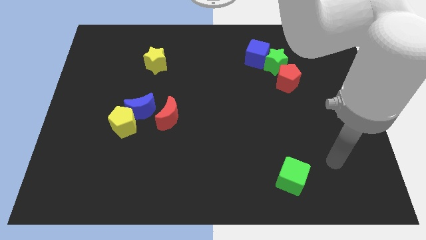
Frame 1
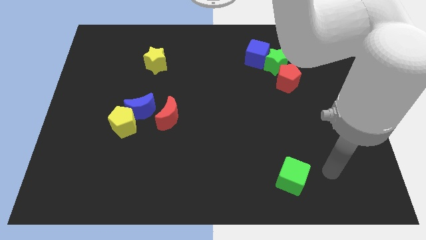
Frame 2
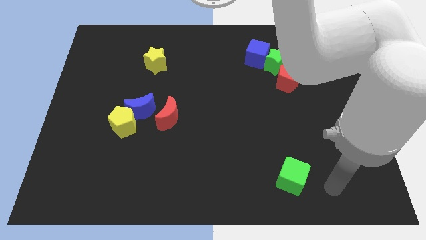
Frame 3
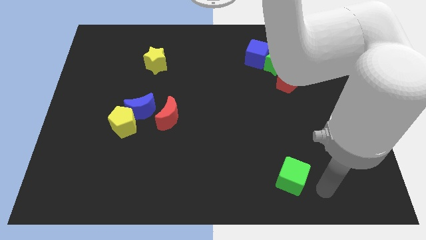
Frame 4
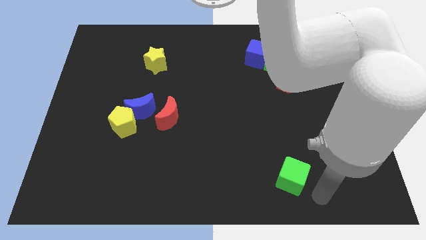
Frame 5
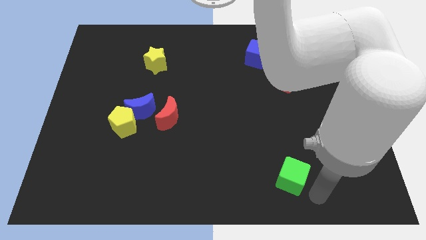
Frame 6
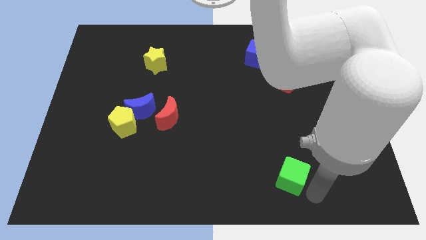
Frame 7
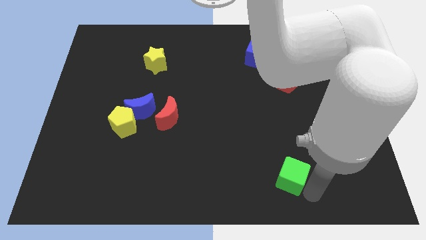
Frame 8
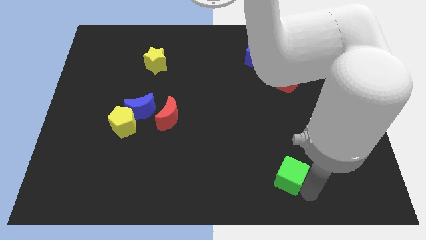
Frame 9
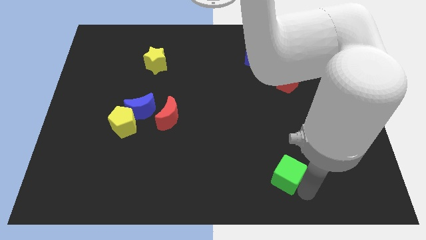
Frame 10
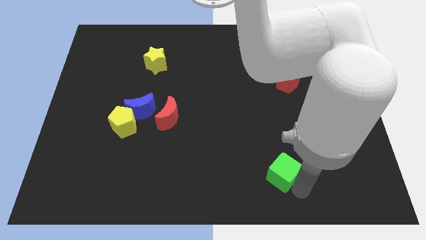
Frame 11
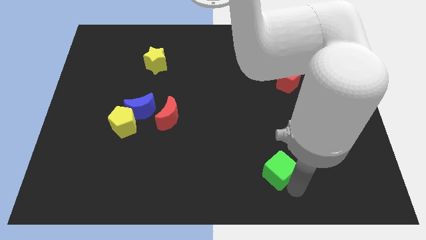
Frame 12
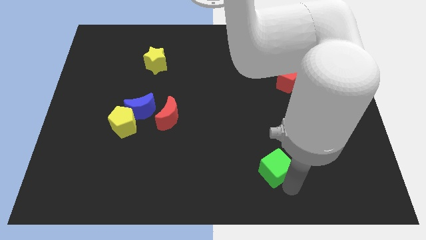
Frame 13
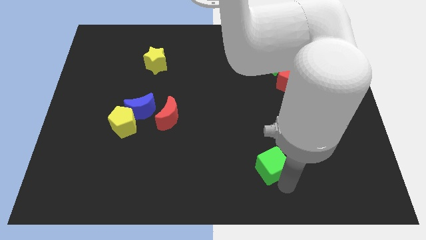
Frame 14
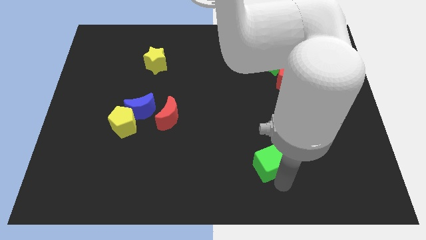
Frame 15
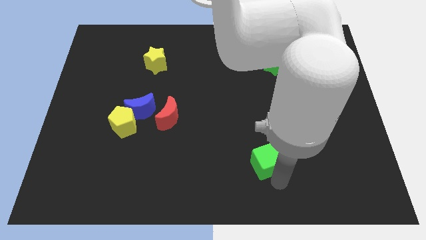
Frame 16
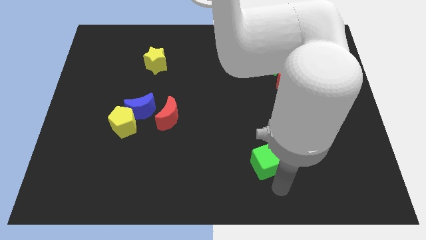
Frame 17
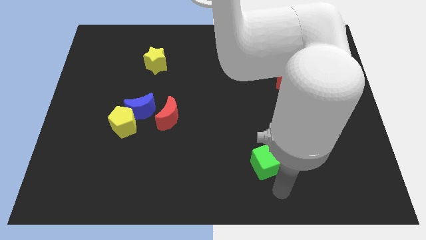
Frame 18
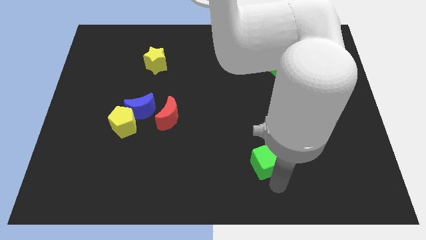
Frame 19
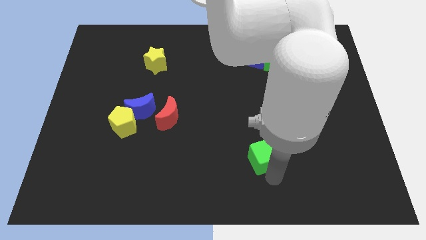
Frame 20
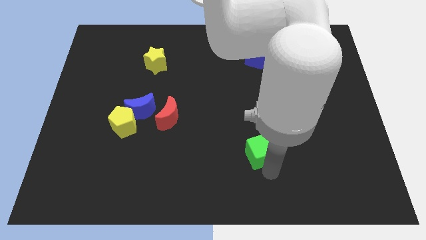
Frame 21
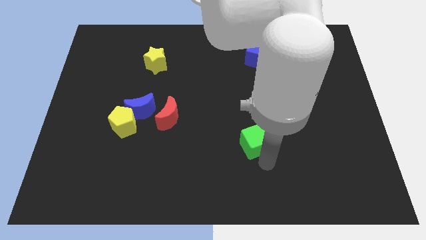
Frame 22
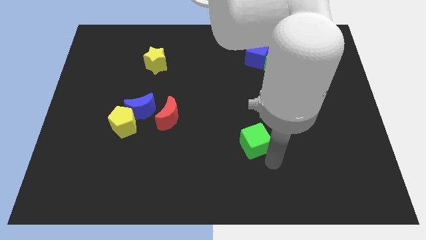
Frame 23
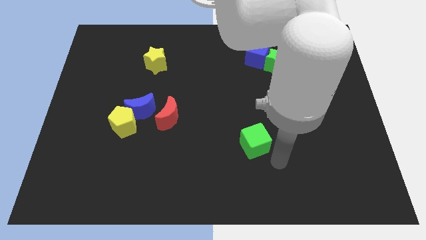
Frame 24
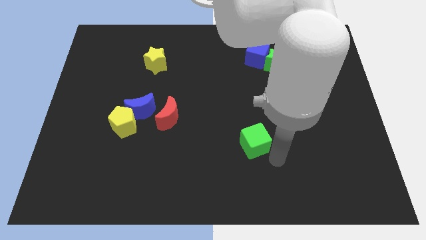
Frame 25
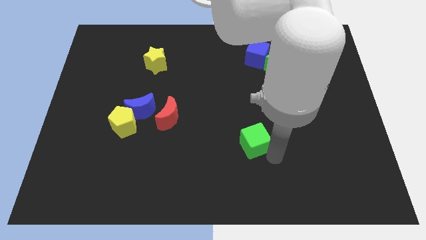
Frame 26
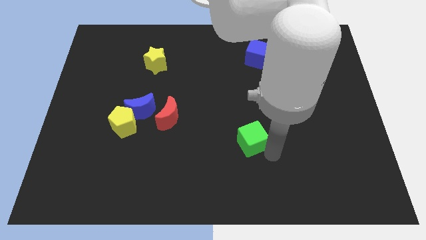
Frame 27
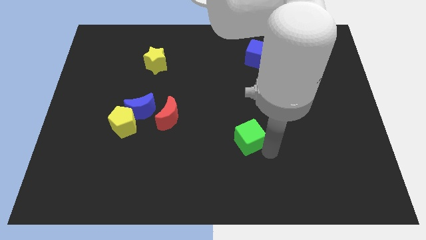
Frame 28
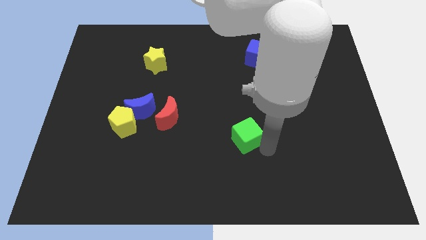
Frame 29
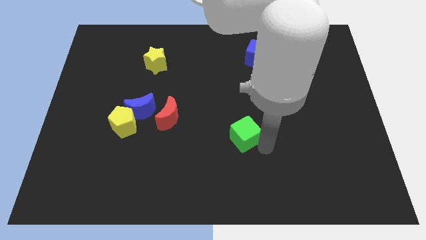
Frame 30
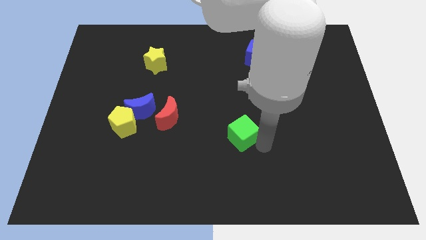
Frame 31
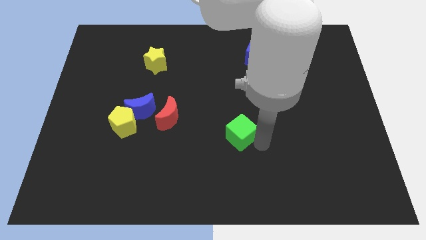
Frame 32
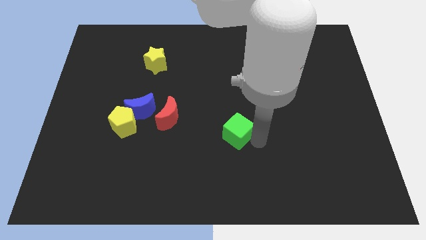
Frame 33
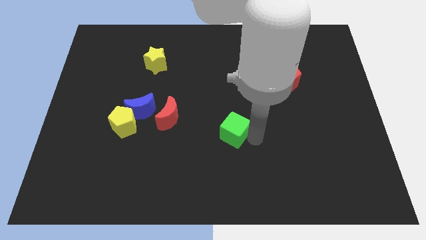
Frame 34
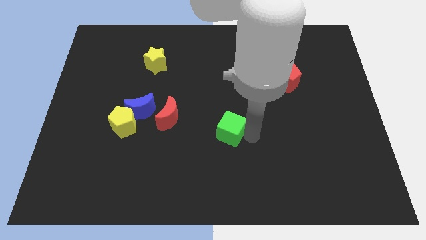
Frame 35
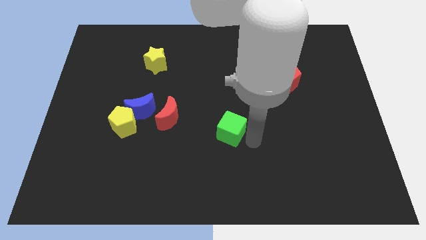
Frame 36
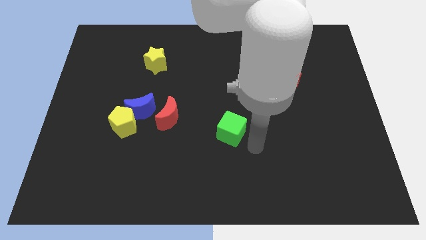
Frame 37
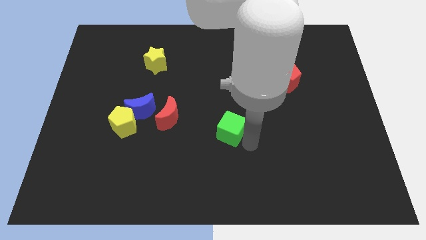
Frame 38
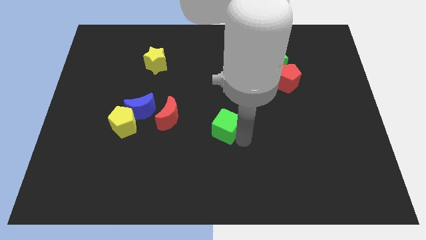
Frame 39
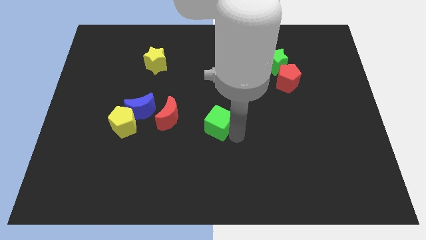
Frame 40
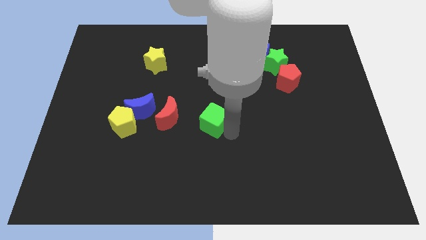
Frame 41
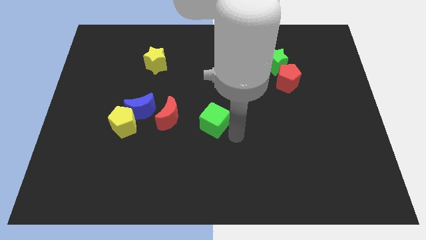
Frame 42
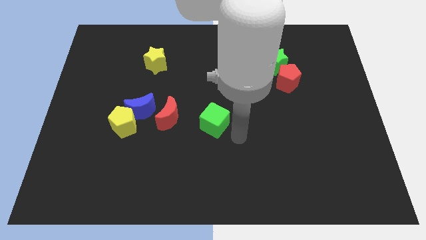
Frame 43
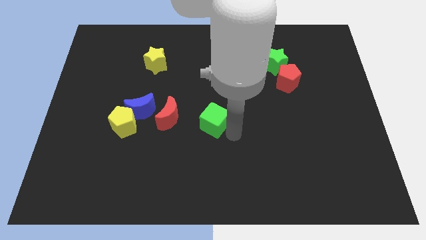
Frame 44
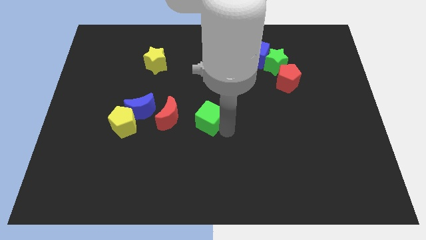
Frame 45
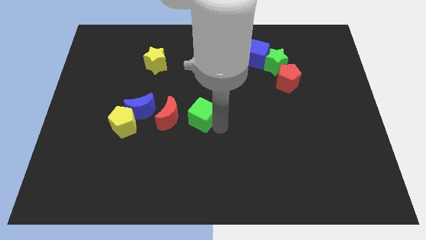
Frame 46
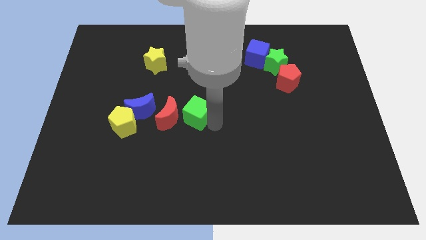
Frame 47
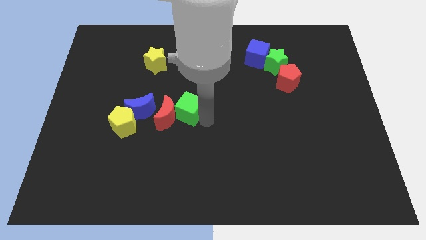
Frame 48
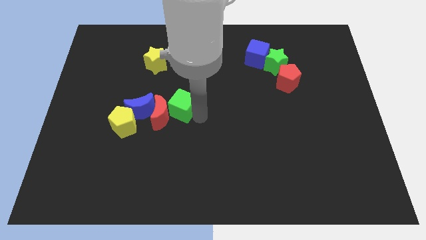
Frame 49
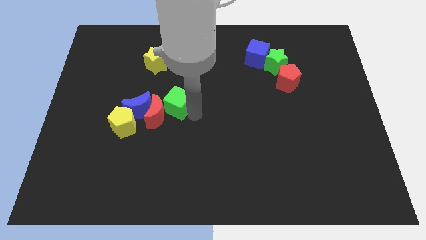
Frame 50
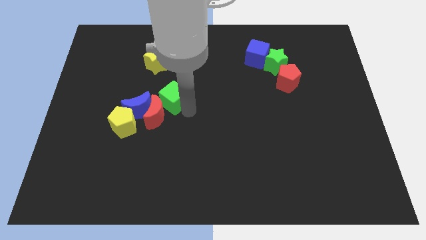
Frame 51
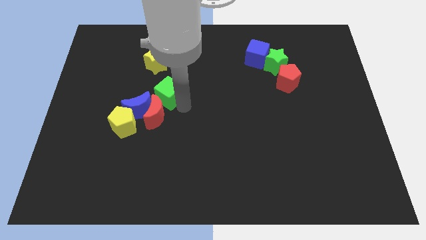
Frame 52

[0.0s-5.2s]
push the green cube to the bottom side of the yellow star

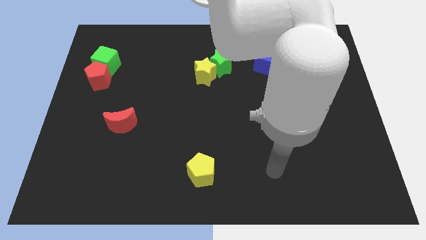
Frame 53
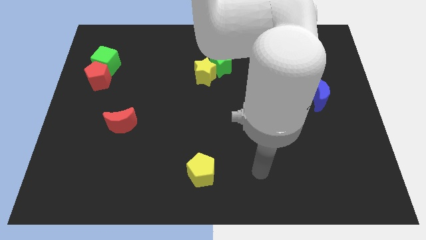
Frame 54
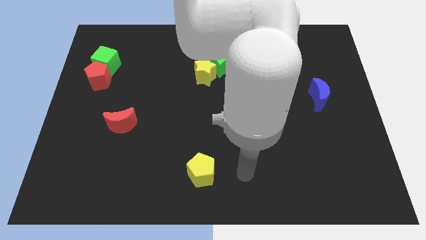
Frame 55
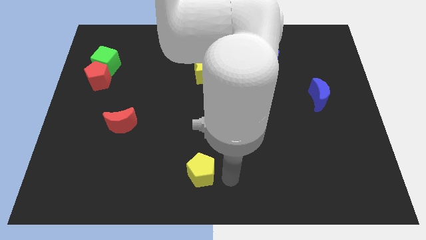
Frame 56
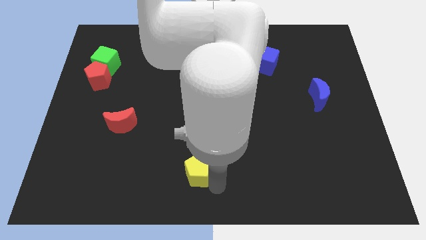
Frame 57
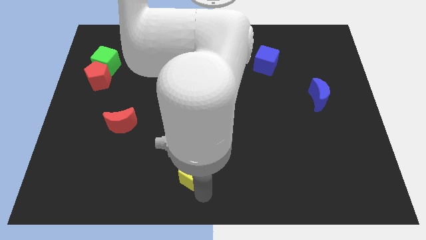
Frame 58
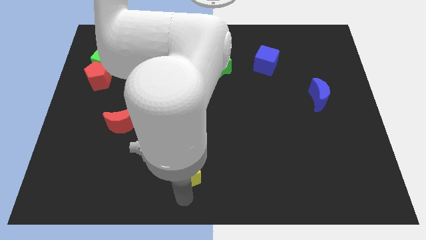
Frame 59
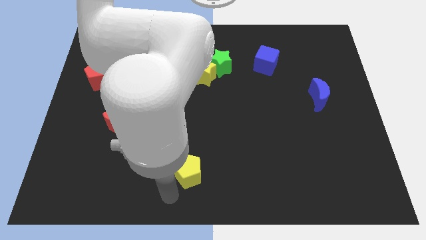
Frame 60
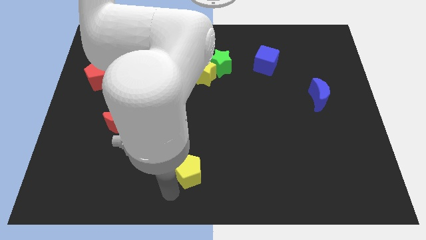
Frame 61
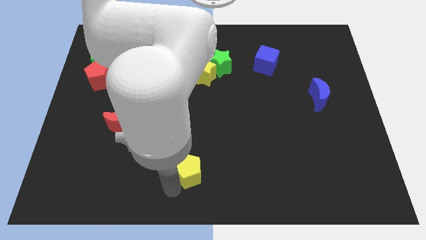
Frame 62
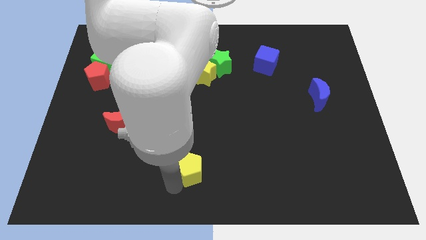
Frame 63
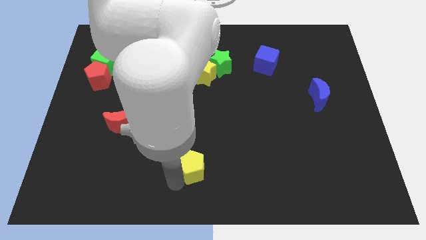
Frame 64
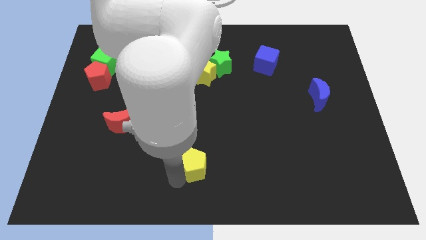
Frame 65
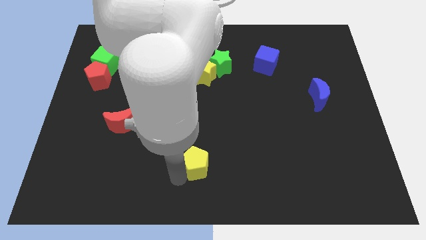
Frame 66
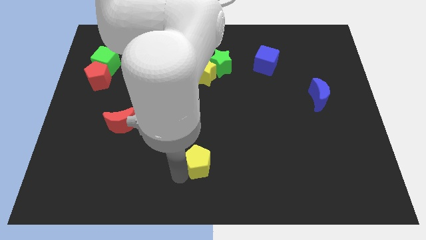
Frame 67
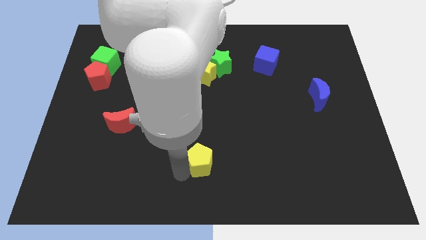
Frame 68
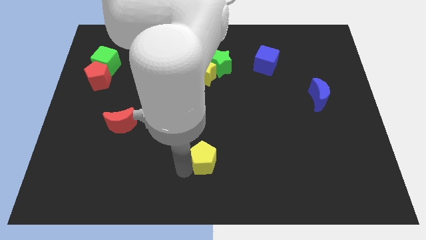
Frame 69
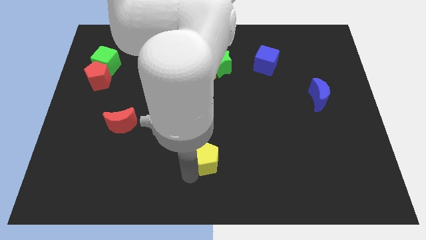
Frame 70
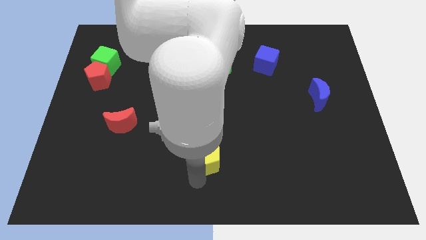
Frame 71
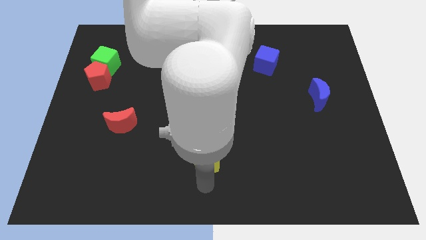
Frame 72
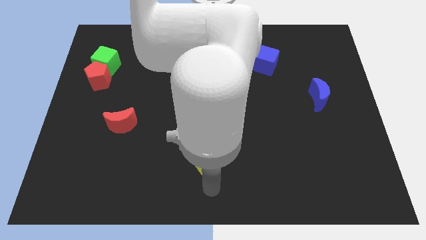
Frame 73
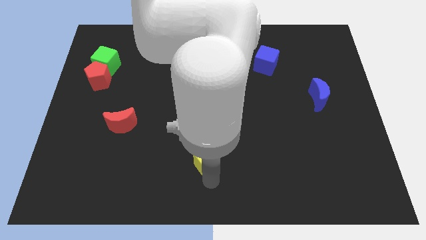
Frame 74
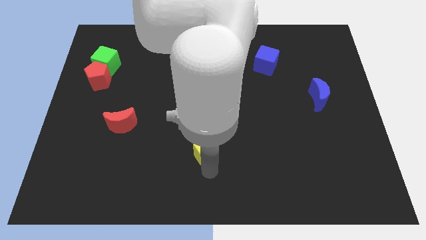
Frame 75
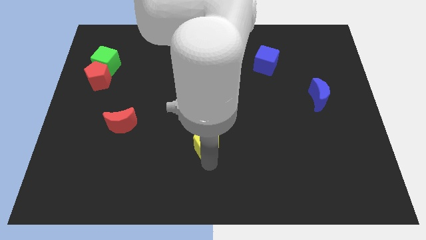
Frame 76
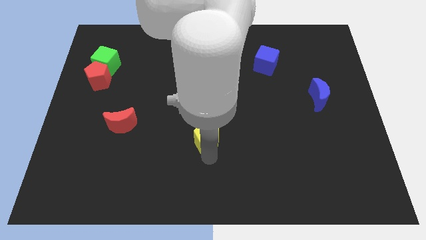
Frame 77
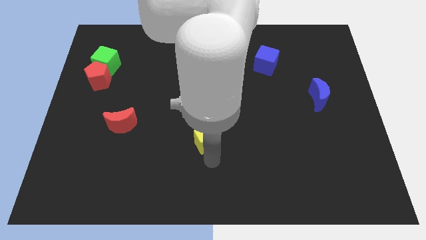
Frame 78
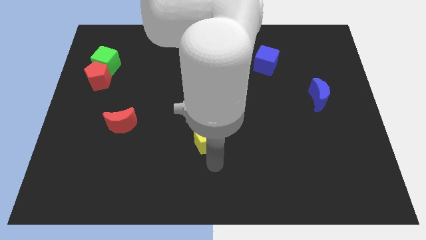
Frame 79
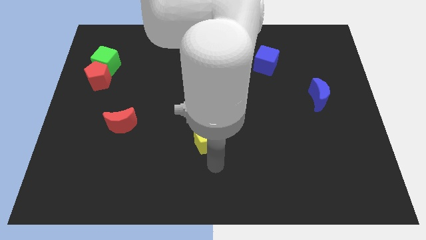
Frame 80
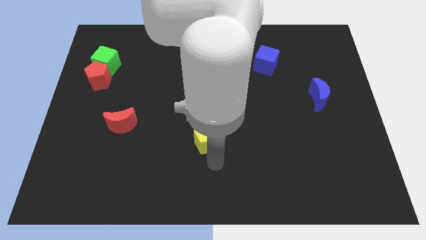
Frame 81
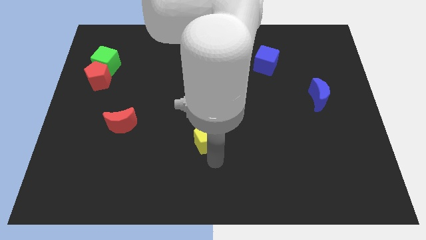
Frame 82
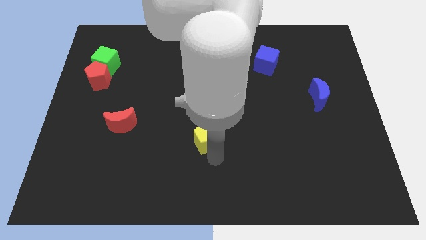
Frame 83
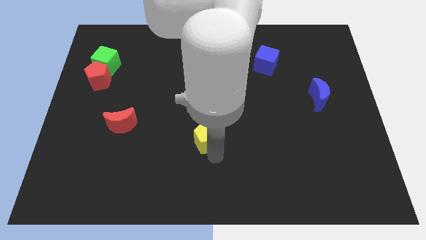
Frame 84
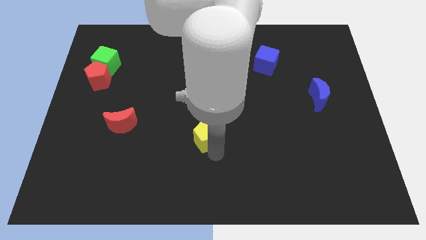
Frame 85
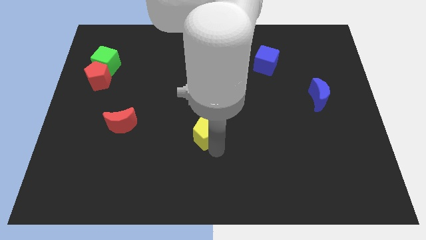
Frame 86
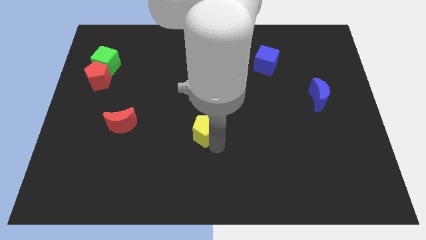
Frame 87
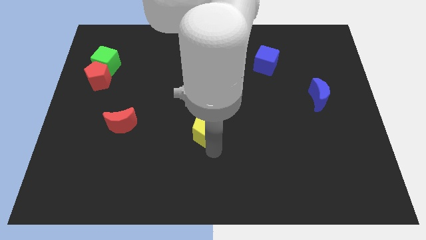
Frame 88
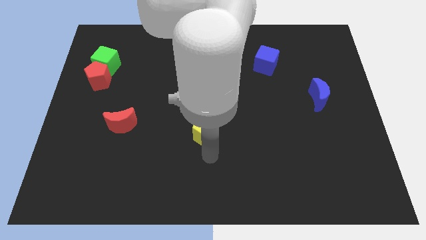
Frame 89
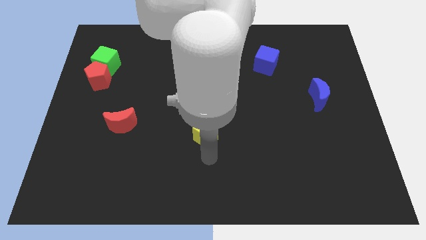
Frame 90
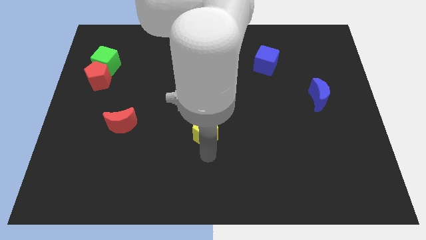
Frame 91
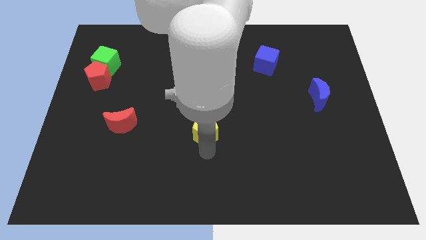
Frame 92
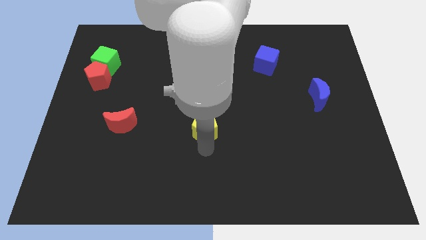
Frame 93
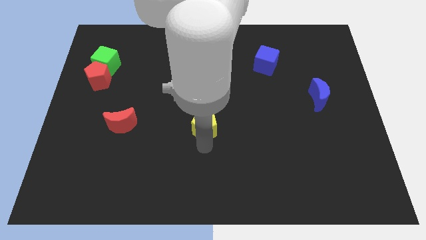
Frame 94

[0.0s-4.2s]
slide the yellow pentagon to the bottom side of the yellow star
